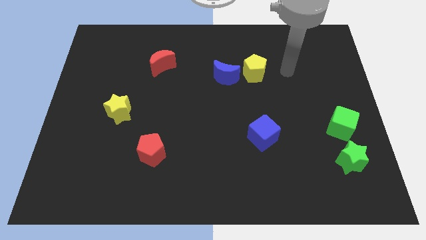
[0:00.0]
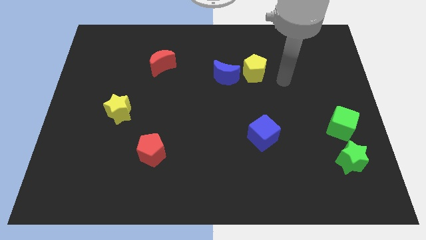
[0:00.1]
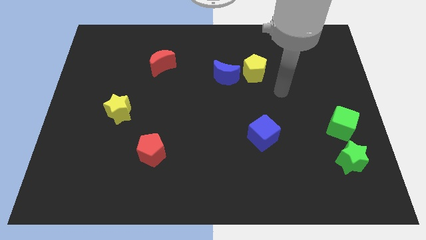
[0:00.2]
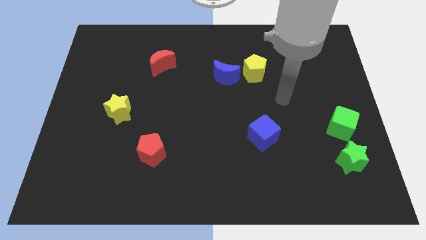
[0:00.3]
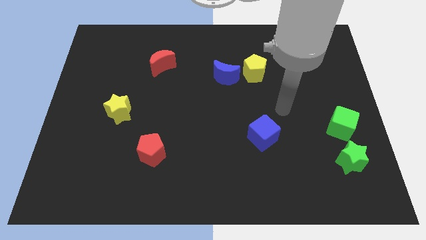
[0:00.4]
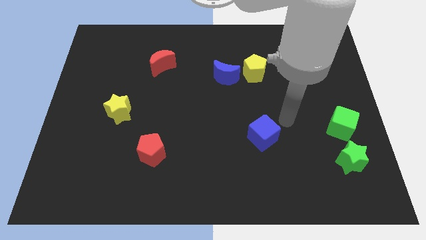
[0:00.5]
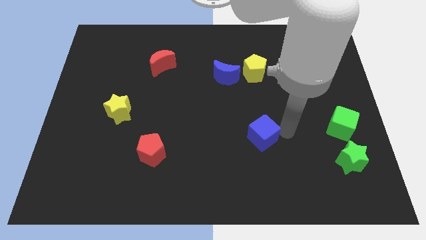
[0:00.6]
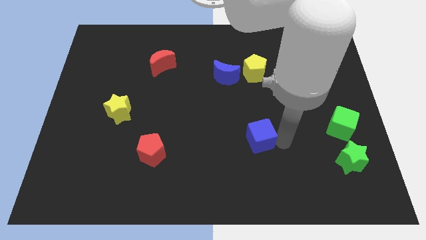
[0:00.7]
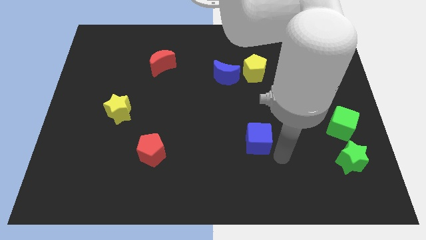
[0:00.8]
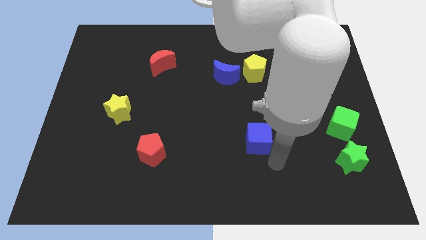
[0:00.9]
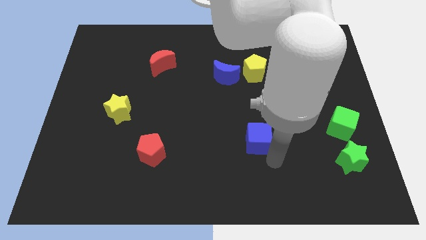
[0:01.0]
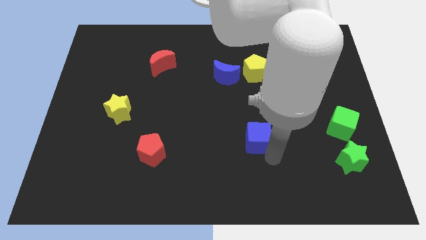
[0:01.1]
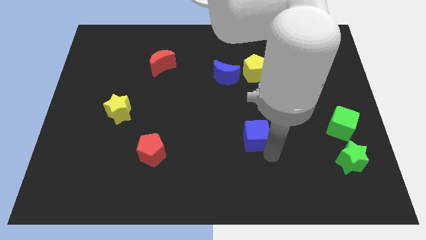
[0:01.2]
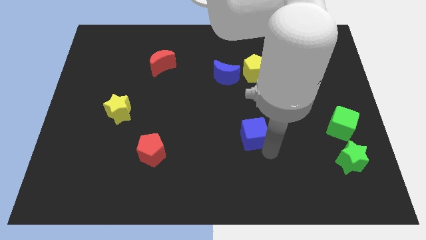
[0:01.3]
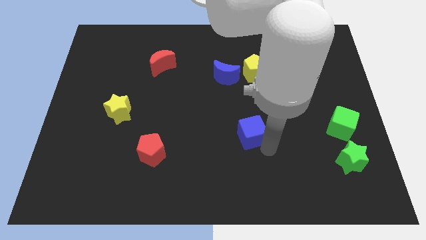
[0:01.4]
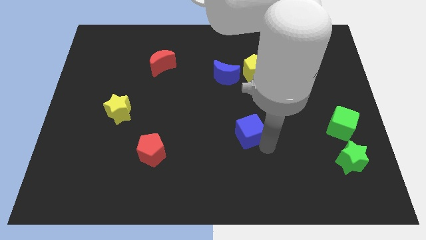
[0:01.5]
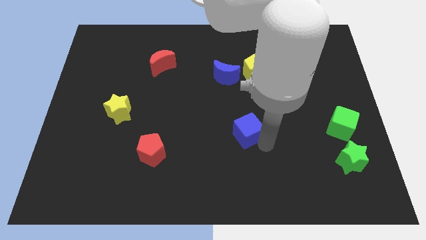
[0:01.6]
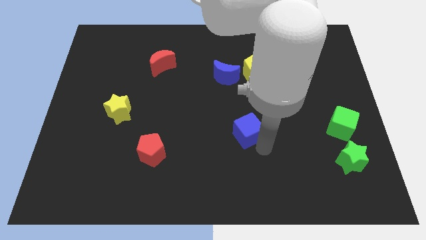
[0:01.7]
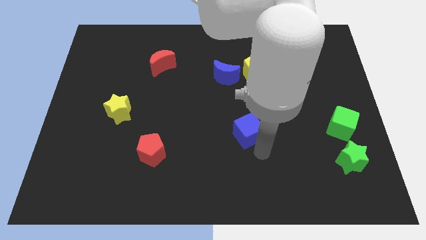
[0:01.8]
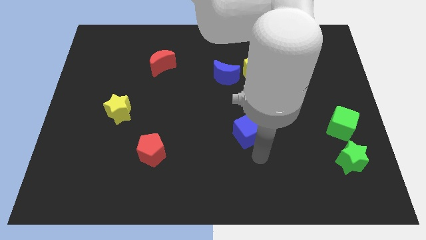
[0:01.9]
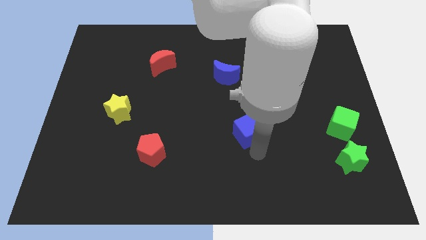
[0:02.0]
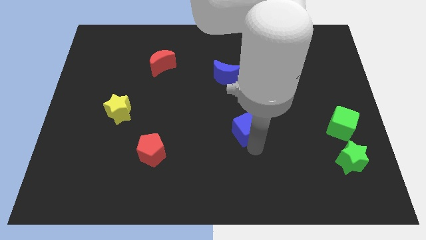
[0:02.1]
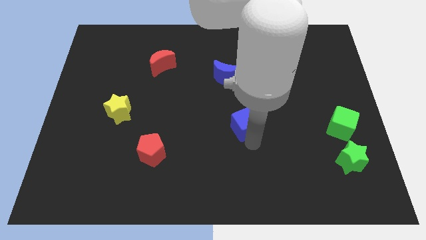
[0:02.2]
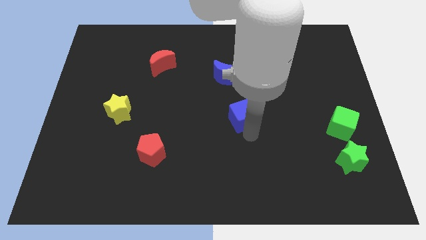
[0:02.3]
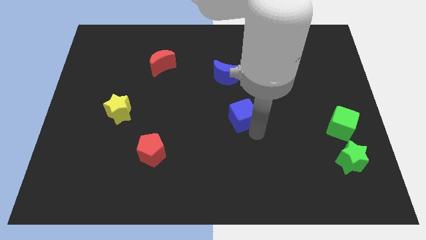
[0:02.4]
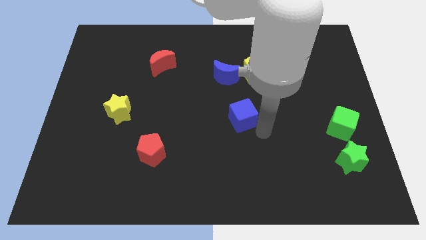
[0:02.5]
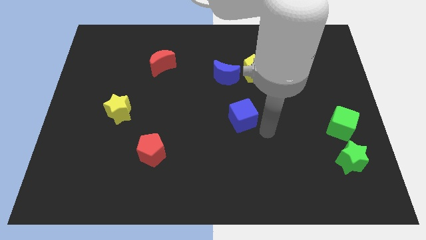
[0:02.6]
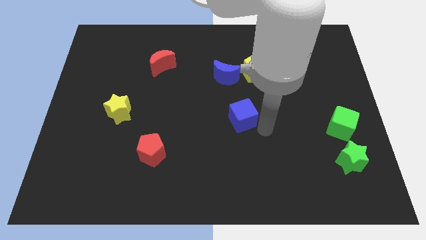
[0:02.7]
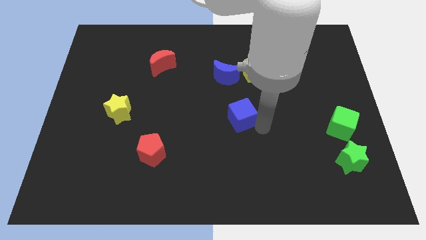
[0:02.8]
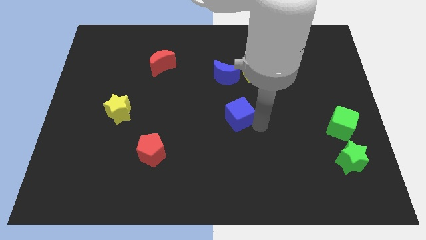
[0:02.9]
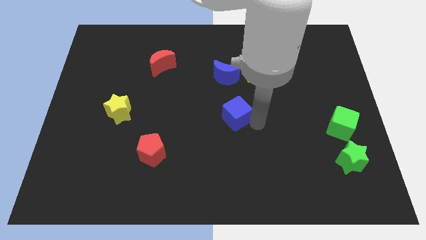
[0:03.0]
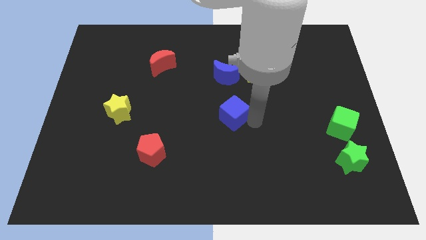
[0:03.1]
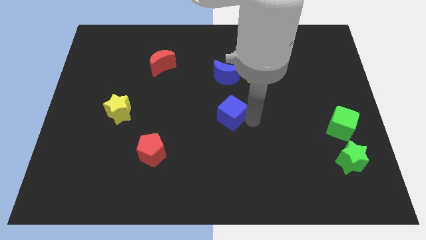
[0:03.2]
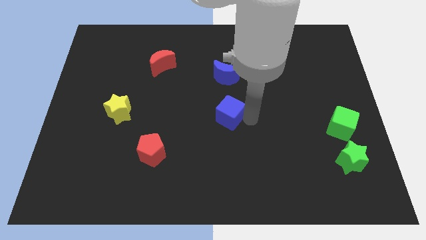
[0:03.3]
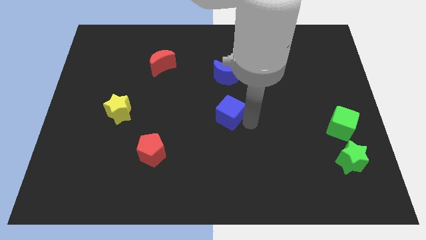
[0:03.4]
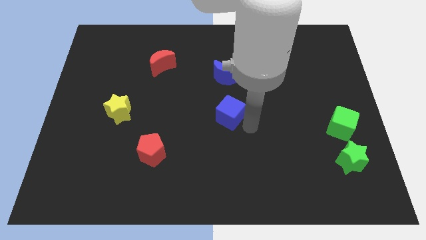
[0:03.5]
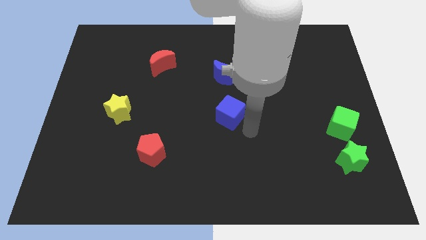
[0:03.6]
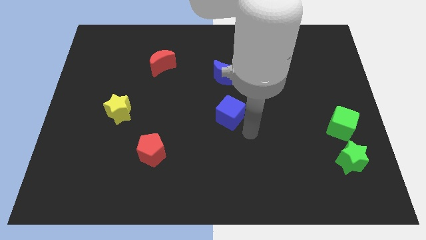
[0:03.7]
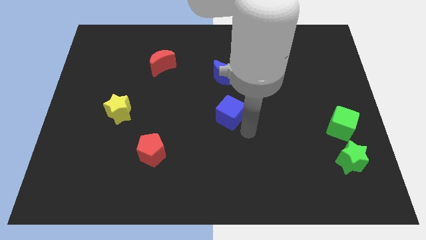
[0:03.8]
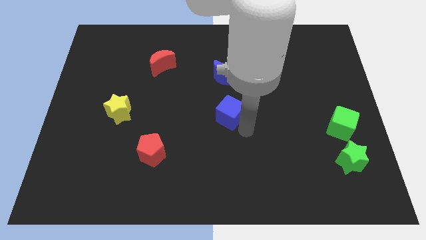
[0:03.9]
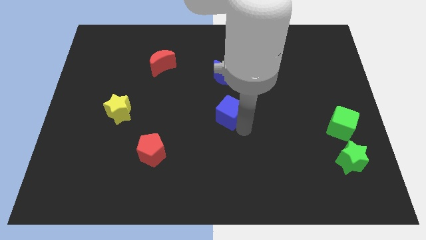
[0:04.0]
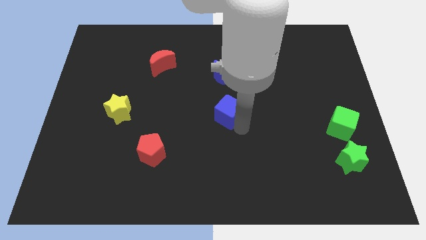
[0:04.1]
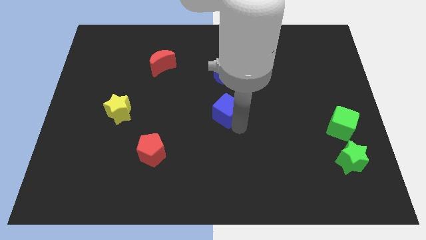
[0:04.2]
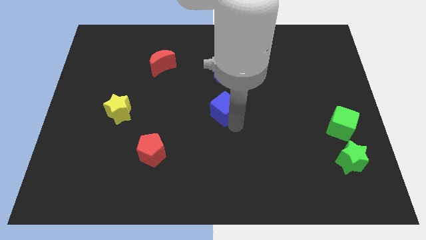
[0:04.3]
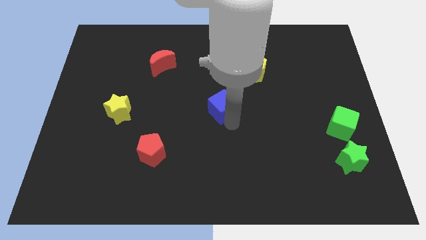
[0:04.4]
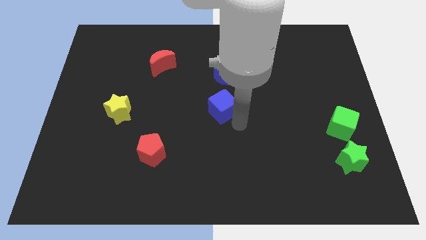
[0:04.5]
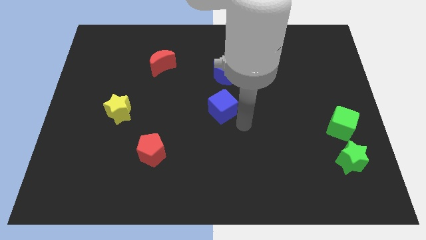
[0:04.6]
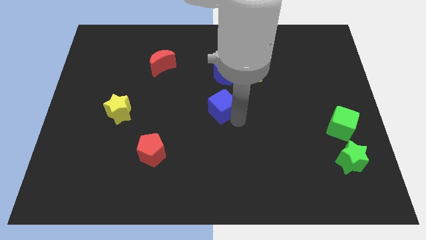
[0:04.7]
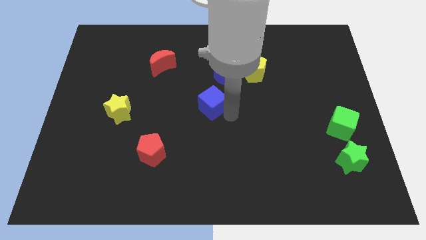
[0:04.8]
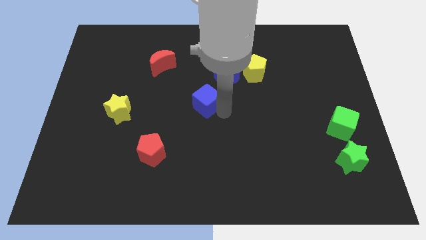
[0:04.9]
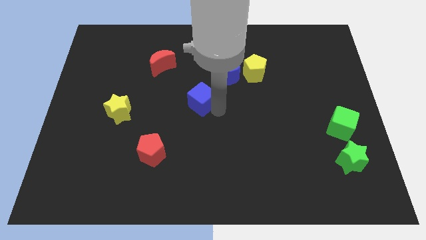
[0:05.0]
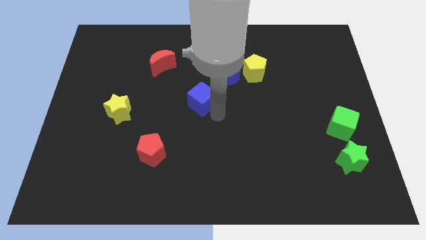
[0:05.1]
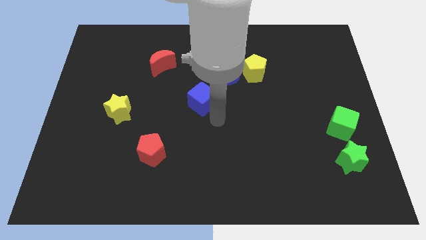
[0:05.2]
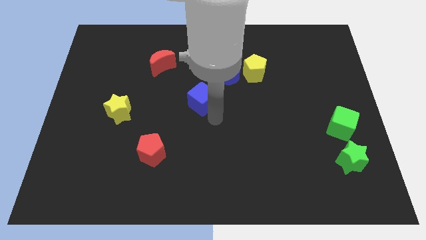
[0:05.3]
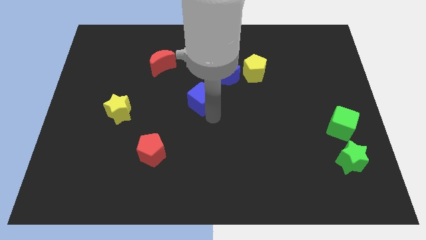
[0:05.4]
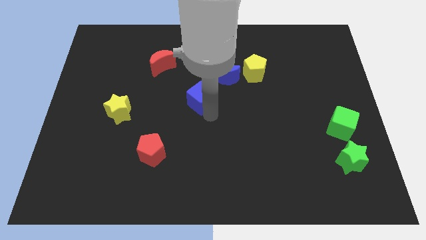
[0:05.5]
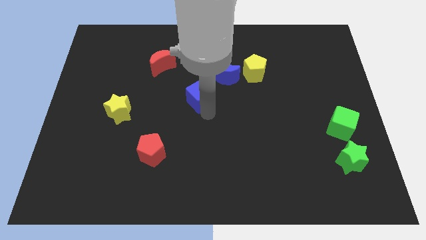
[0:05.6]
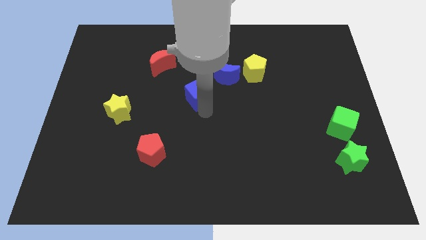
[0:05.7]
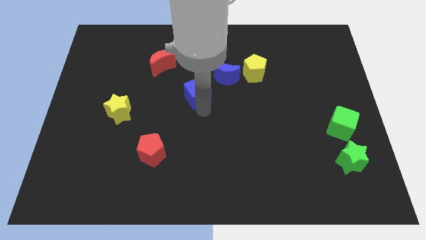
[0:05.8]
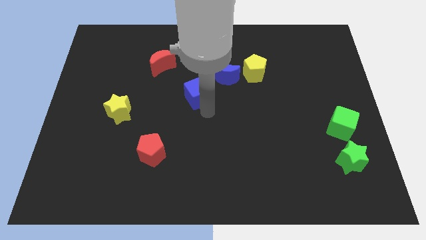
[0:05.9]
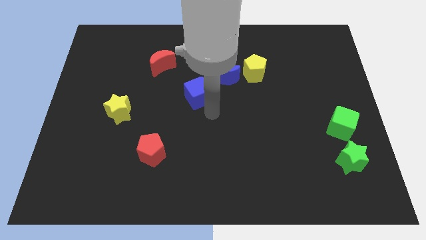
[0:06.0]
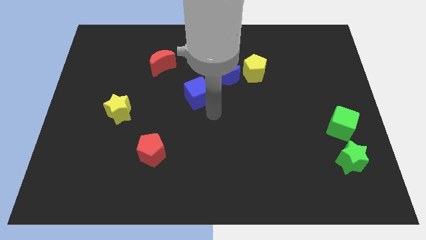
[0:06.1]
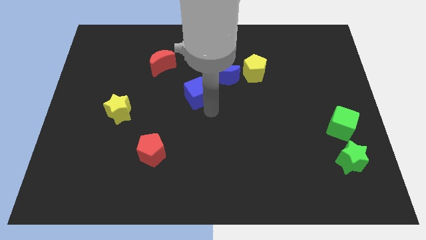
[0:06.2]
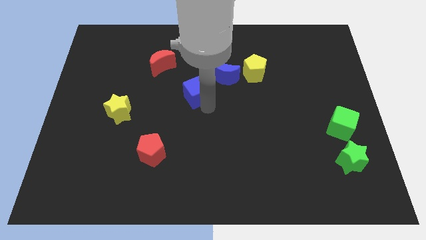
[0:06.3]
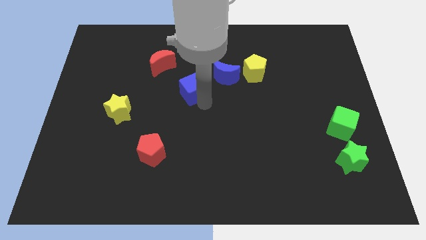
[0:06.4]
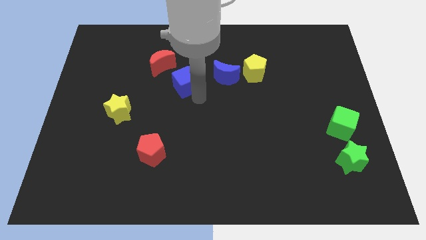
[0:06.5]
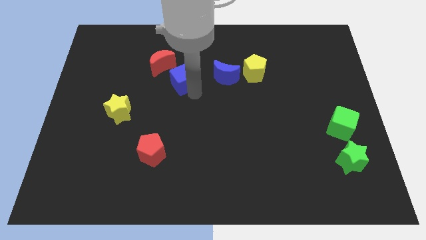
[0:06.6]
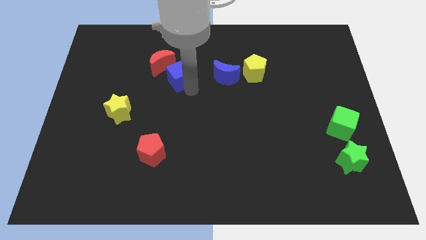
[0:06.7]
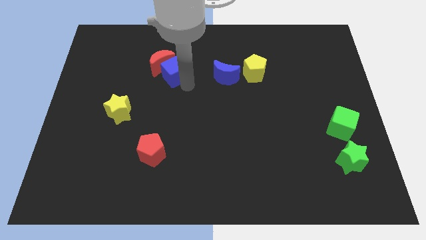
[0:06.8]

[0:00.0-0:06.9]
put the blue cube towards the red moon

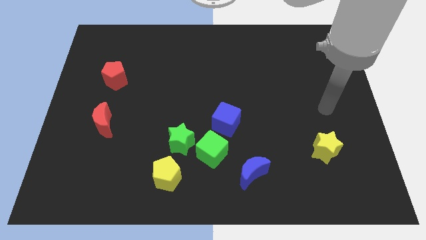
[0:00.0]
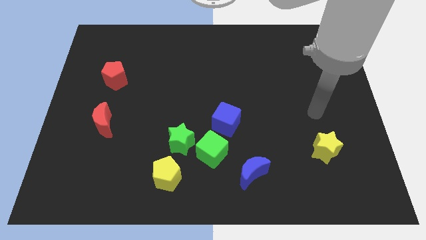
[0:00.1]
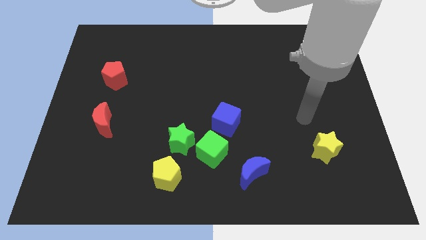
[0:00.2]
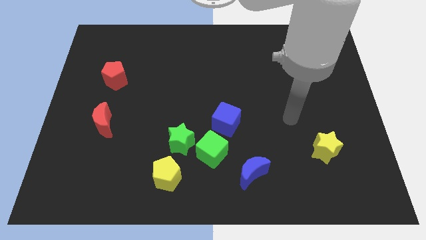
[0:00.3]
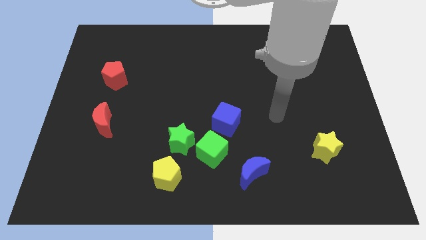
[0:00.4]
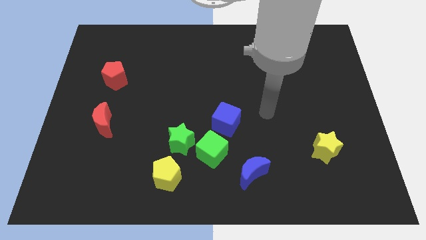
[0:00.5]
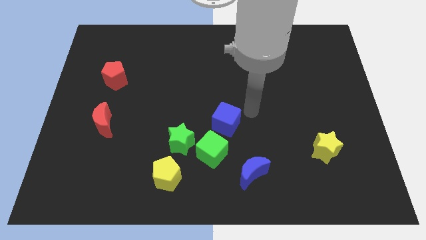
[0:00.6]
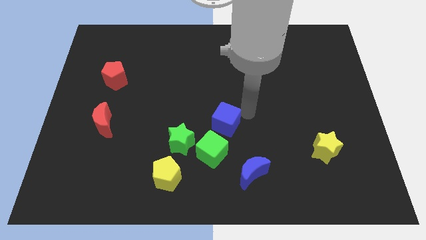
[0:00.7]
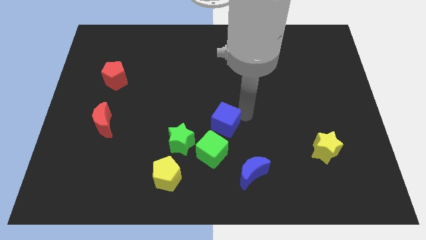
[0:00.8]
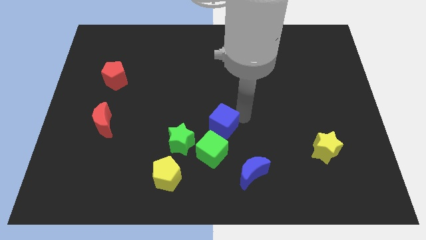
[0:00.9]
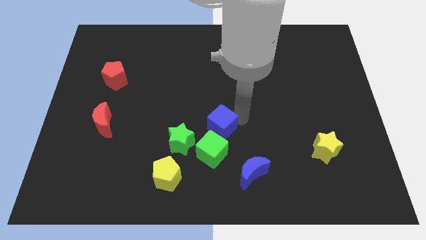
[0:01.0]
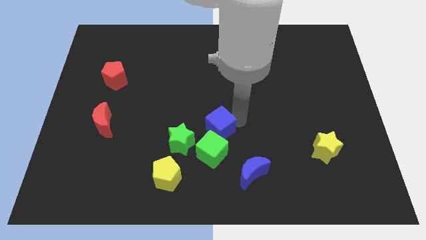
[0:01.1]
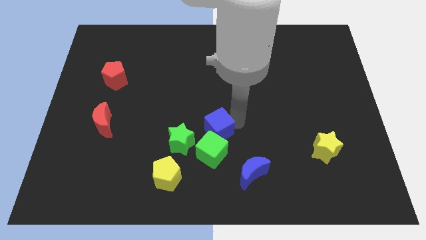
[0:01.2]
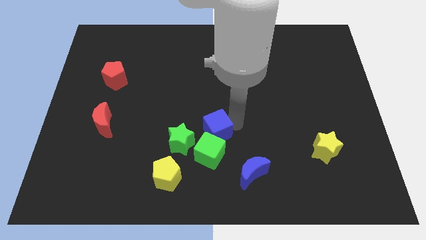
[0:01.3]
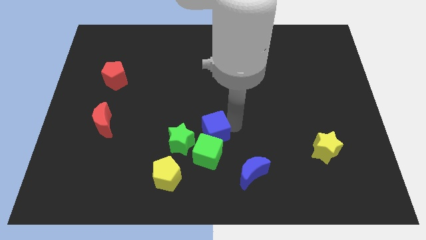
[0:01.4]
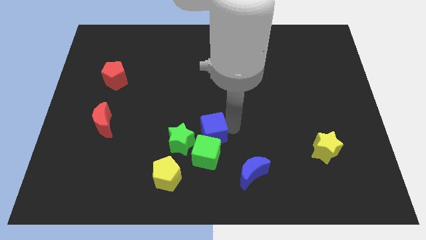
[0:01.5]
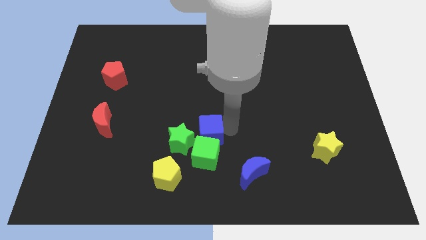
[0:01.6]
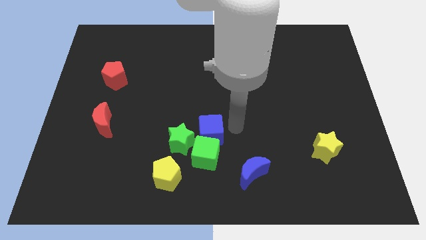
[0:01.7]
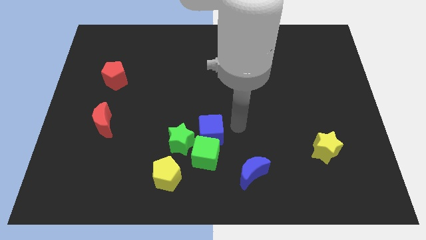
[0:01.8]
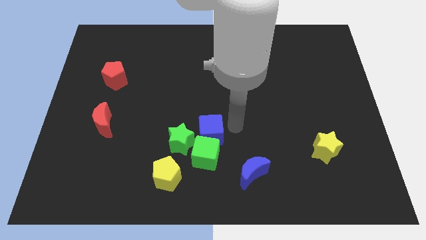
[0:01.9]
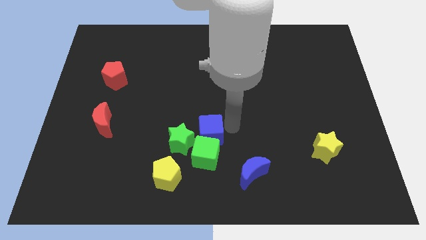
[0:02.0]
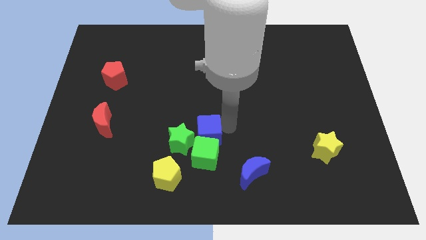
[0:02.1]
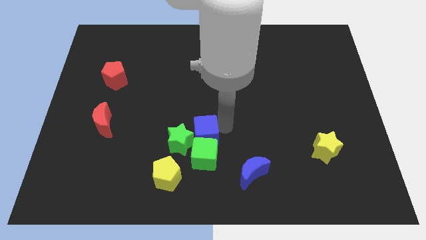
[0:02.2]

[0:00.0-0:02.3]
move the blue cube towards the green star
